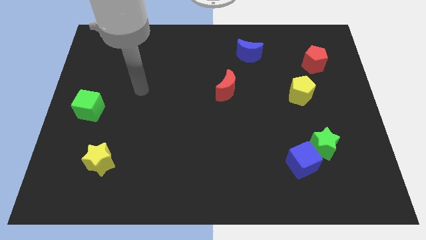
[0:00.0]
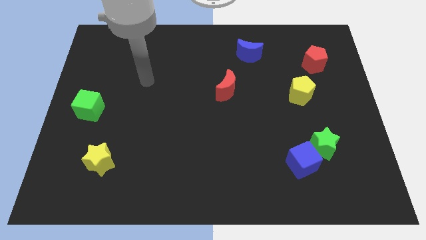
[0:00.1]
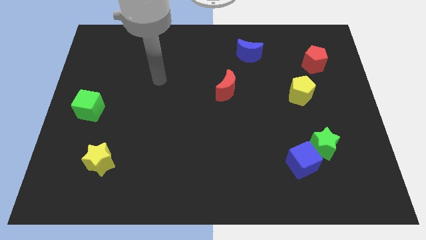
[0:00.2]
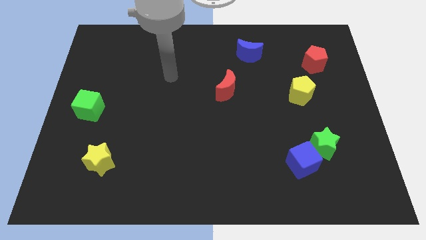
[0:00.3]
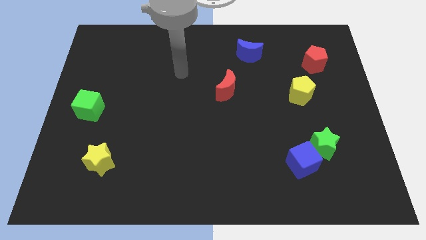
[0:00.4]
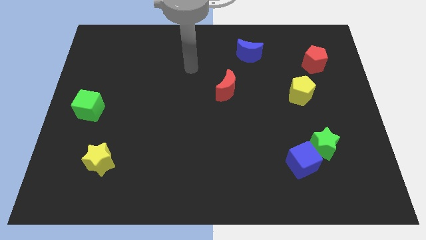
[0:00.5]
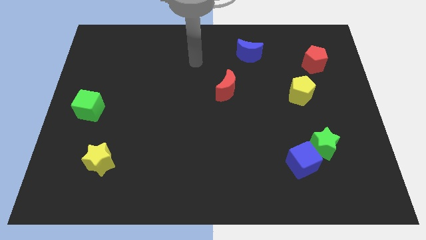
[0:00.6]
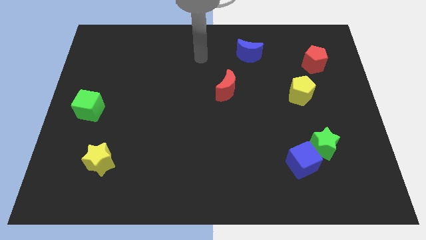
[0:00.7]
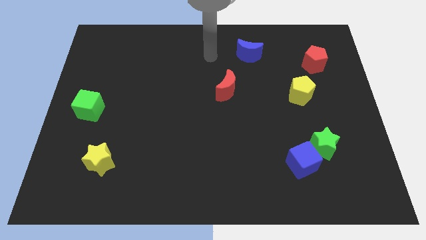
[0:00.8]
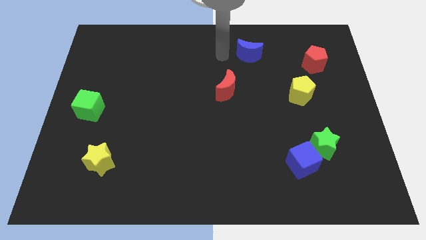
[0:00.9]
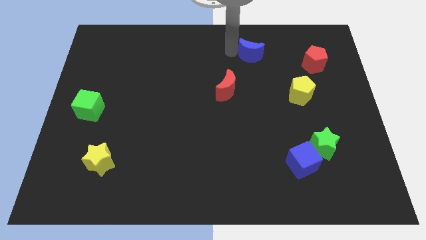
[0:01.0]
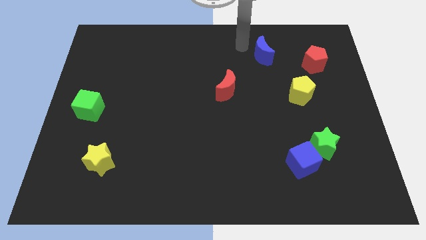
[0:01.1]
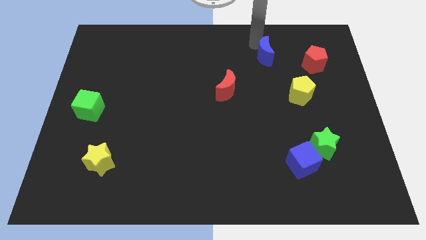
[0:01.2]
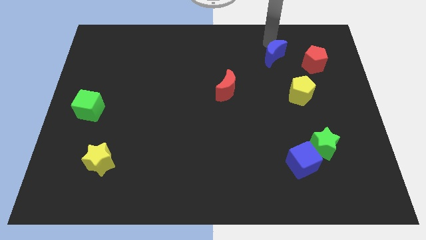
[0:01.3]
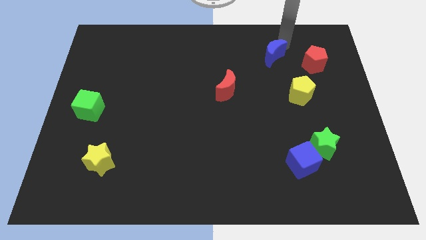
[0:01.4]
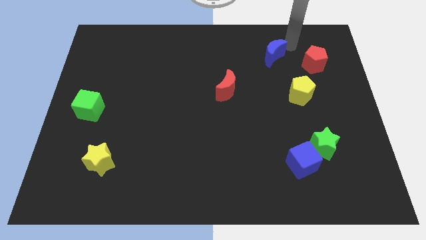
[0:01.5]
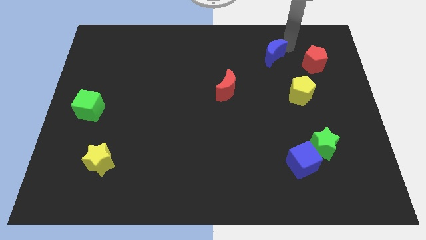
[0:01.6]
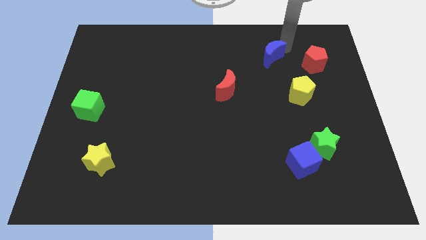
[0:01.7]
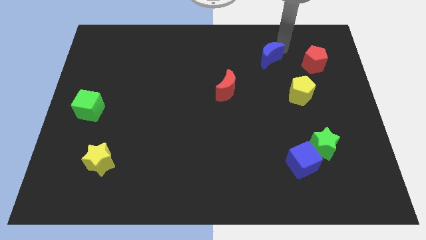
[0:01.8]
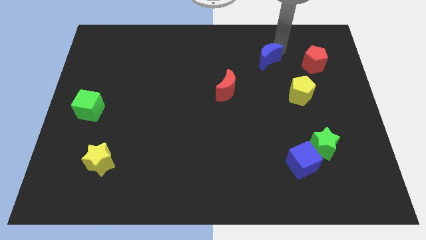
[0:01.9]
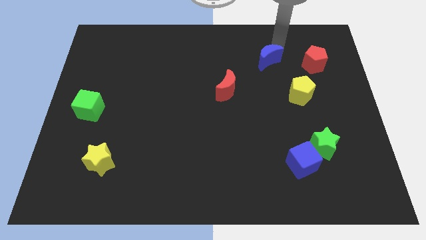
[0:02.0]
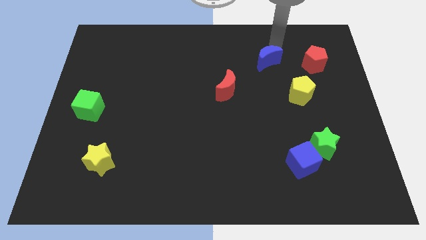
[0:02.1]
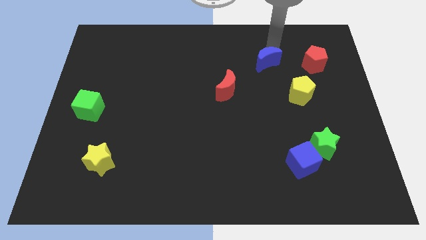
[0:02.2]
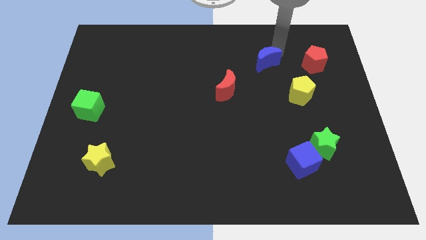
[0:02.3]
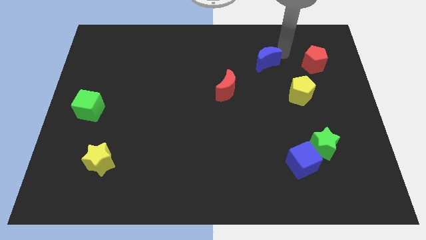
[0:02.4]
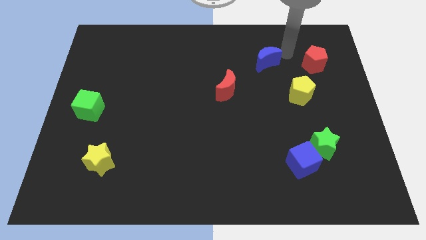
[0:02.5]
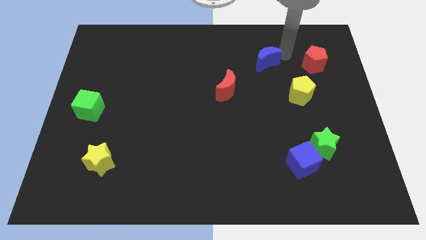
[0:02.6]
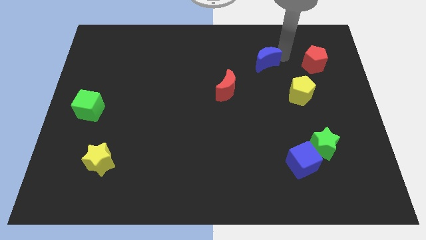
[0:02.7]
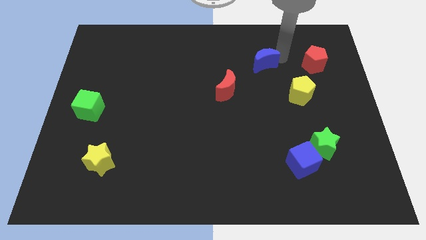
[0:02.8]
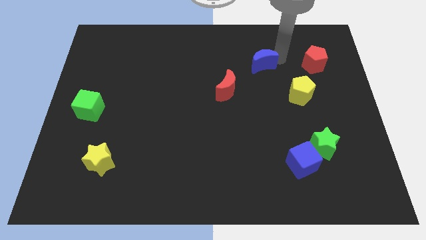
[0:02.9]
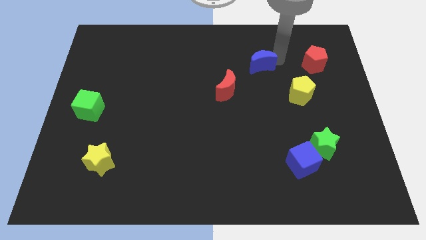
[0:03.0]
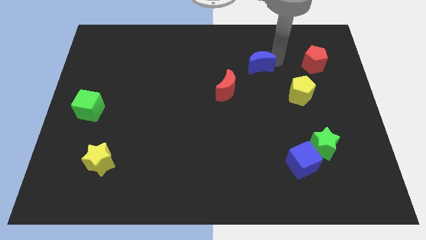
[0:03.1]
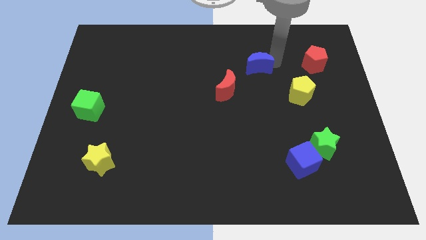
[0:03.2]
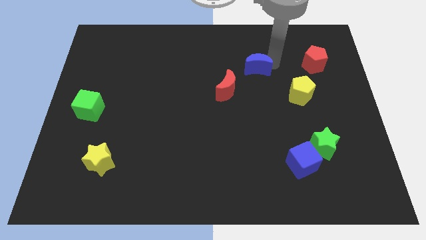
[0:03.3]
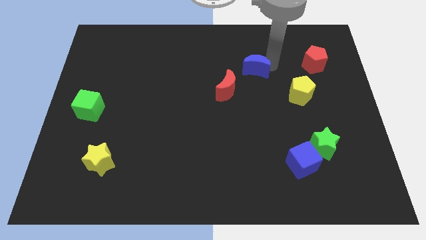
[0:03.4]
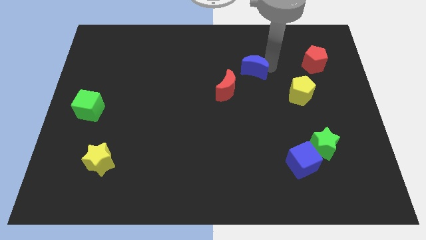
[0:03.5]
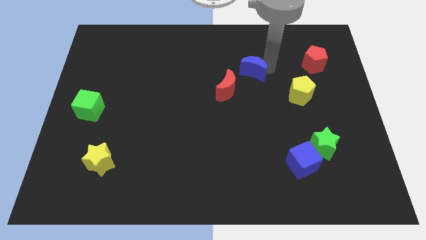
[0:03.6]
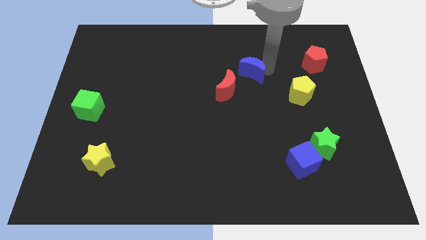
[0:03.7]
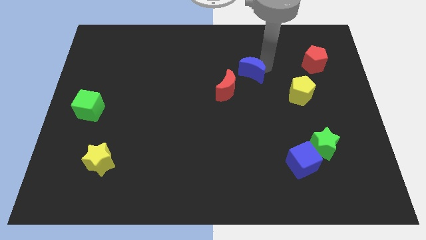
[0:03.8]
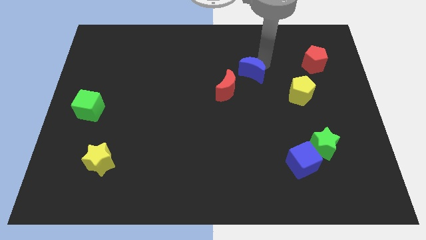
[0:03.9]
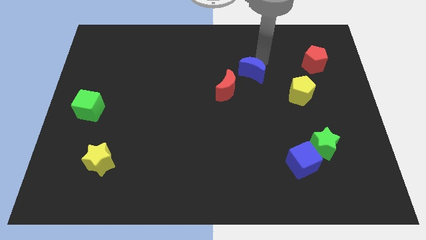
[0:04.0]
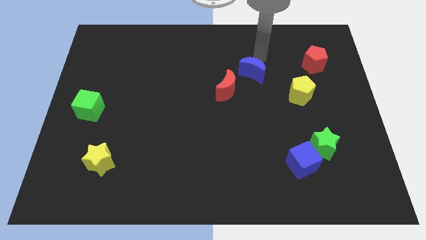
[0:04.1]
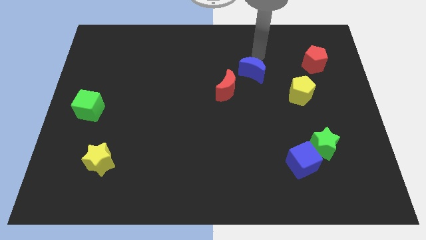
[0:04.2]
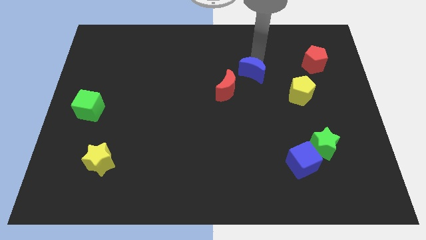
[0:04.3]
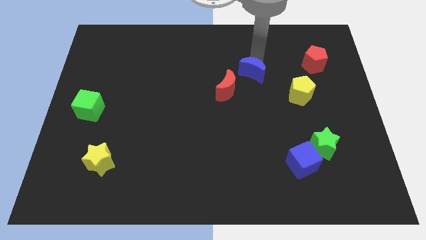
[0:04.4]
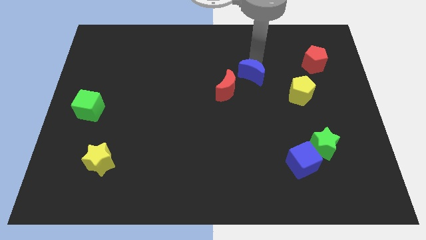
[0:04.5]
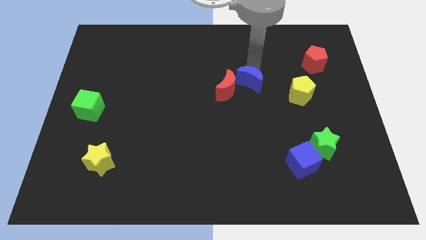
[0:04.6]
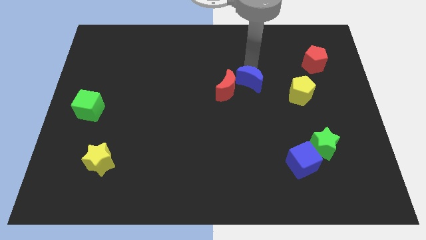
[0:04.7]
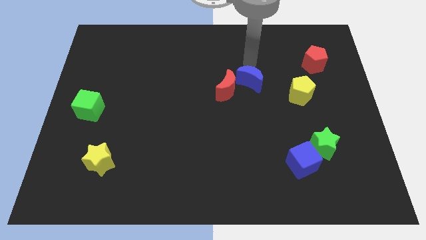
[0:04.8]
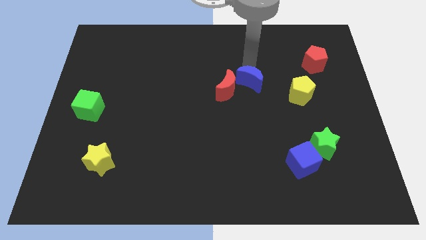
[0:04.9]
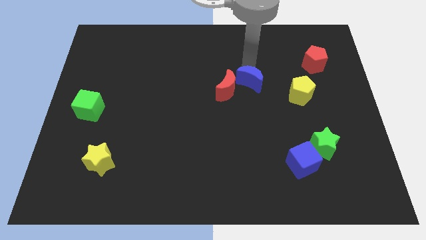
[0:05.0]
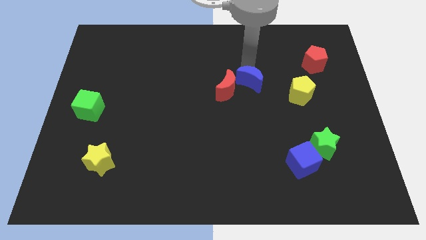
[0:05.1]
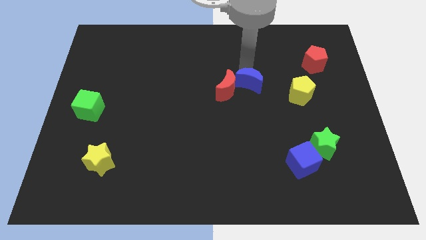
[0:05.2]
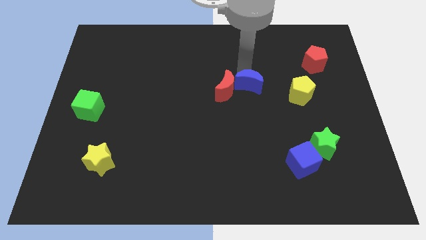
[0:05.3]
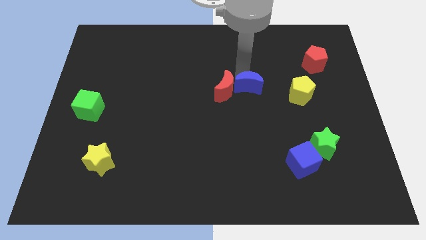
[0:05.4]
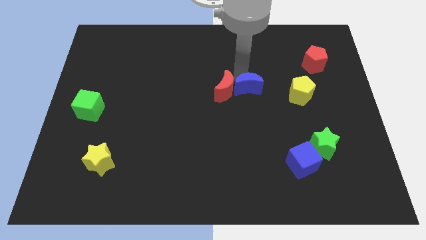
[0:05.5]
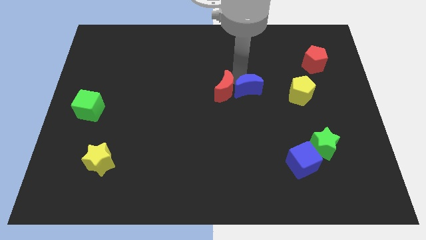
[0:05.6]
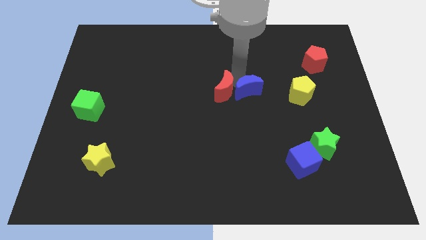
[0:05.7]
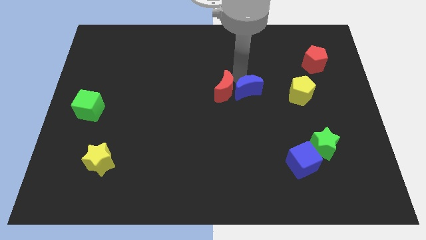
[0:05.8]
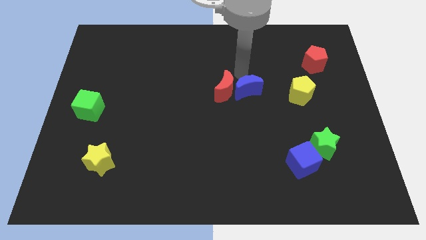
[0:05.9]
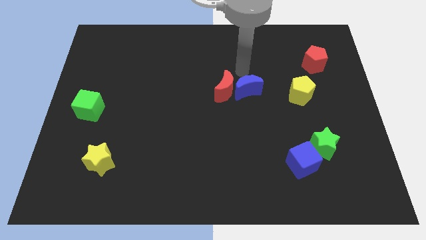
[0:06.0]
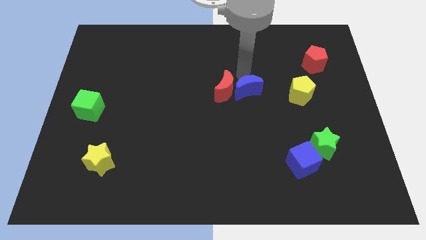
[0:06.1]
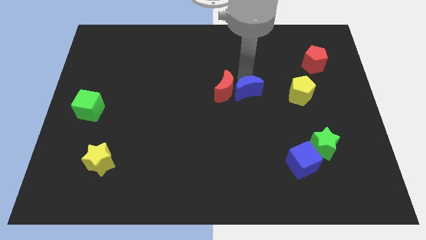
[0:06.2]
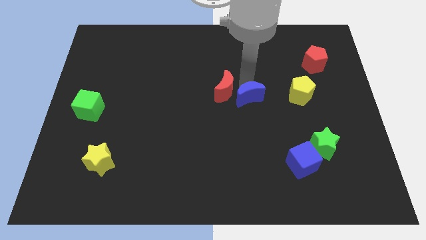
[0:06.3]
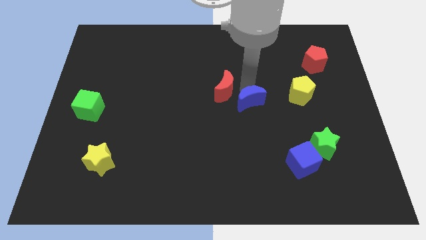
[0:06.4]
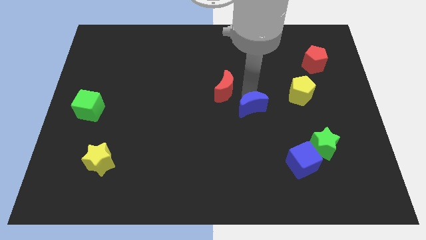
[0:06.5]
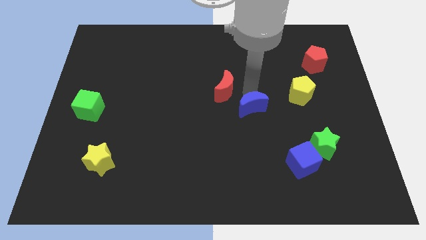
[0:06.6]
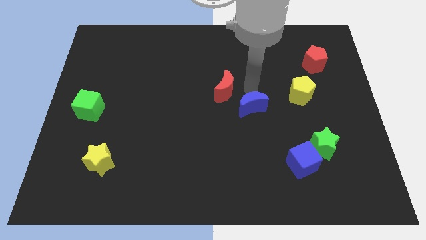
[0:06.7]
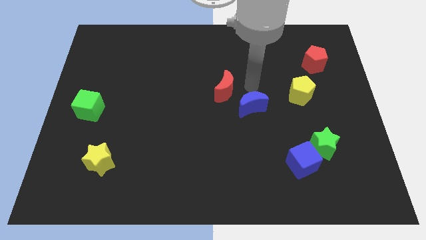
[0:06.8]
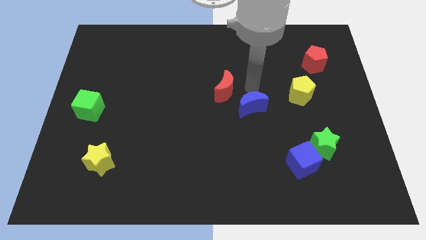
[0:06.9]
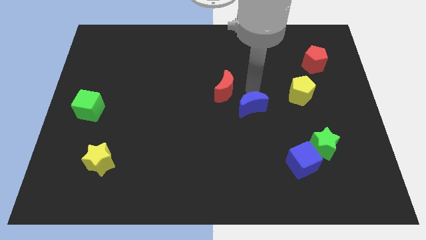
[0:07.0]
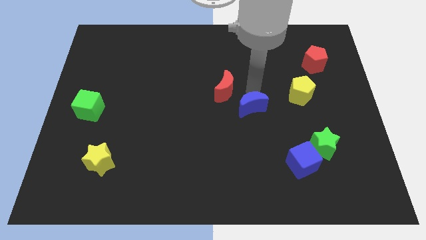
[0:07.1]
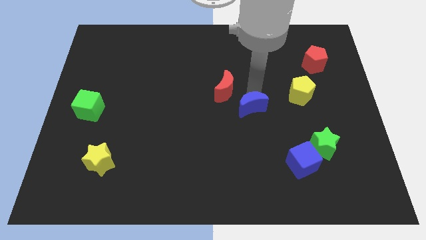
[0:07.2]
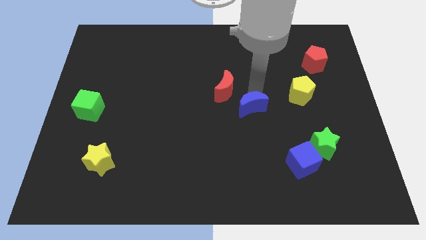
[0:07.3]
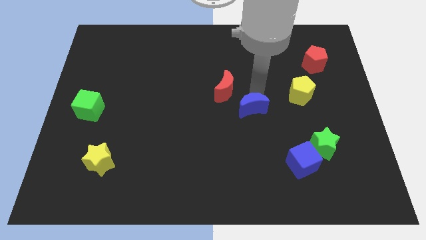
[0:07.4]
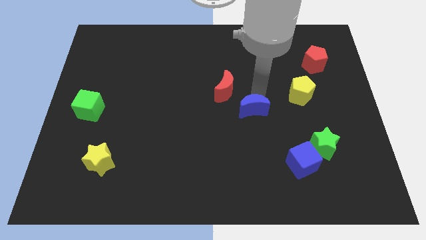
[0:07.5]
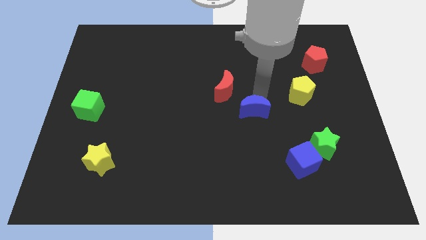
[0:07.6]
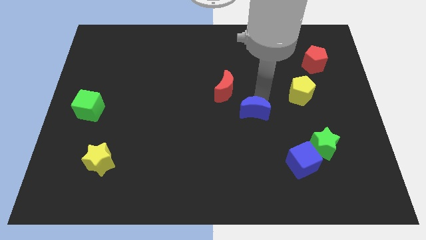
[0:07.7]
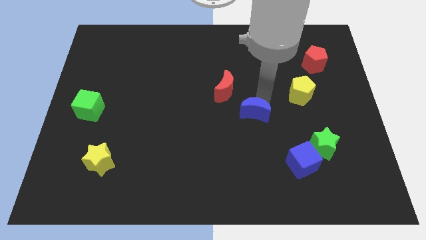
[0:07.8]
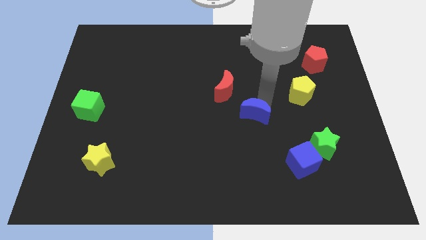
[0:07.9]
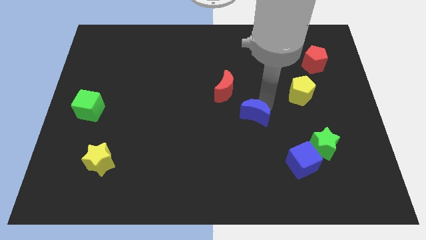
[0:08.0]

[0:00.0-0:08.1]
slide the blue moon down

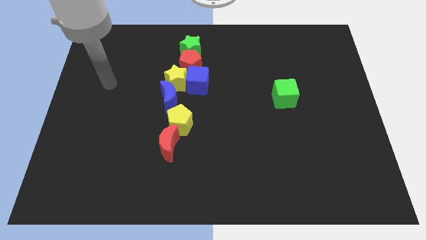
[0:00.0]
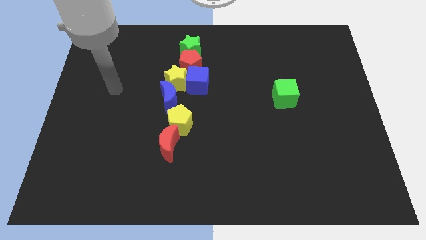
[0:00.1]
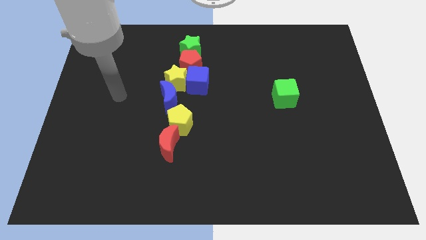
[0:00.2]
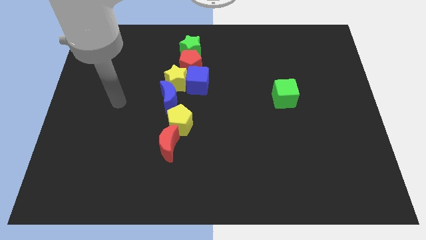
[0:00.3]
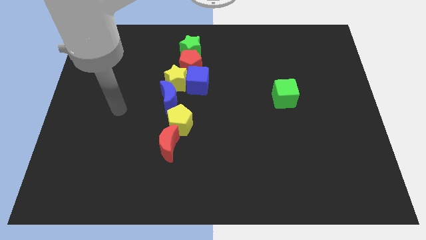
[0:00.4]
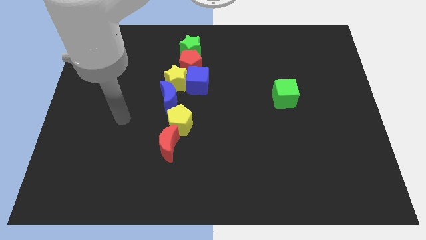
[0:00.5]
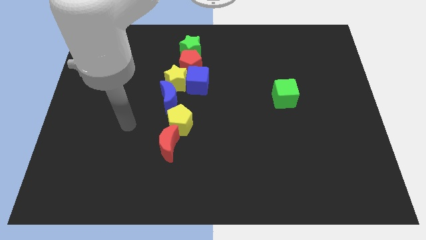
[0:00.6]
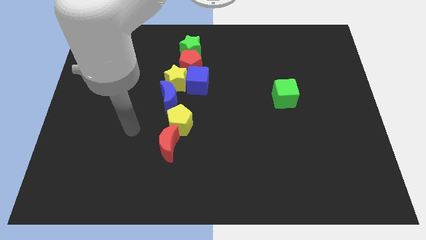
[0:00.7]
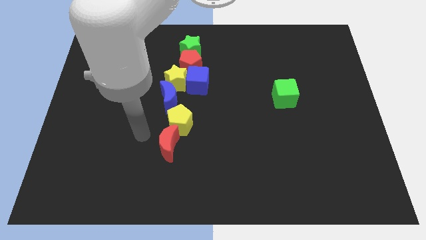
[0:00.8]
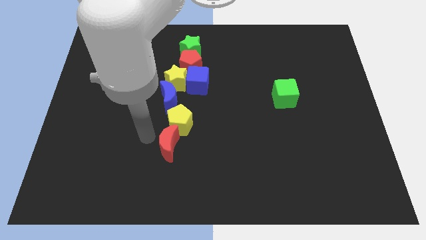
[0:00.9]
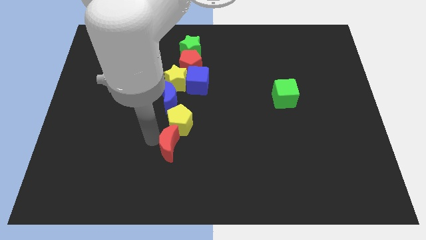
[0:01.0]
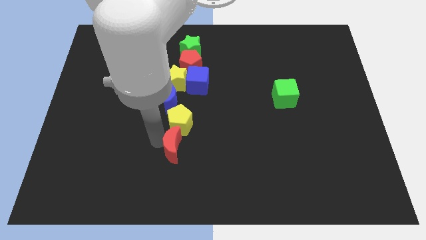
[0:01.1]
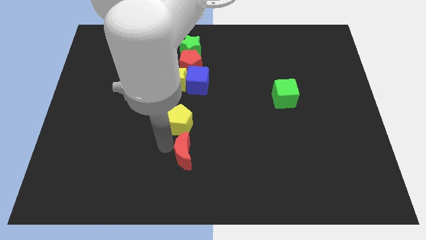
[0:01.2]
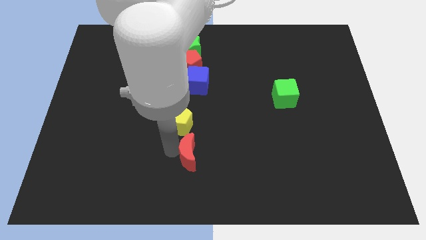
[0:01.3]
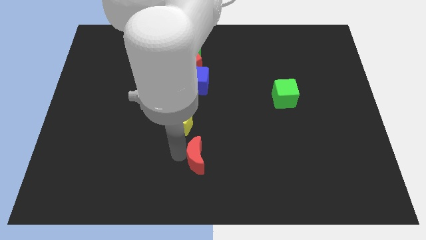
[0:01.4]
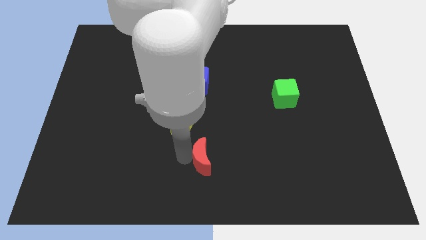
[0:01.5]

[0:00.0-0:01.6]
move the red moon a little right
